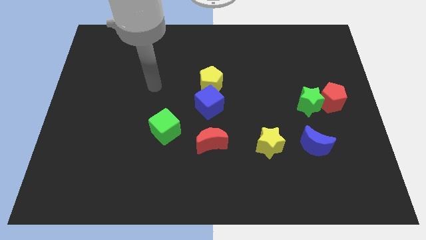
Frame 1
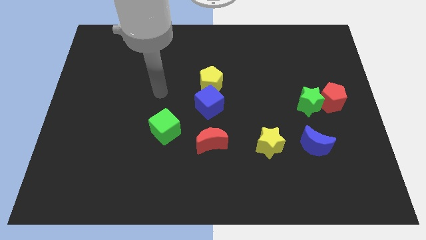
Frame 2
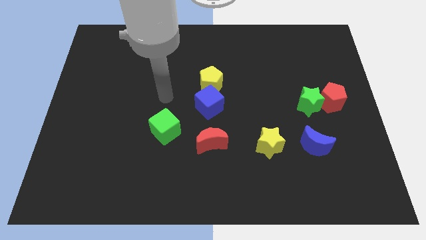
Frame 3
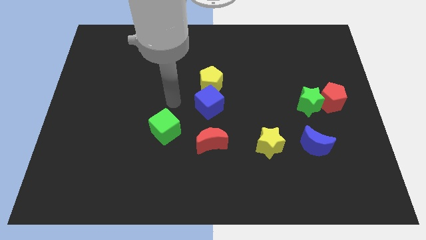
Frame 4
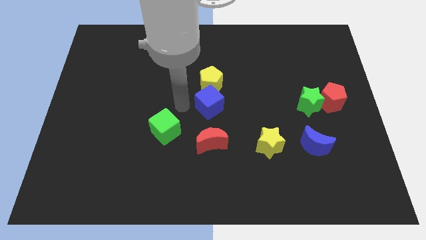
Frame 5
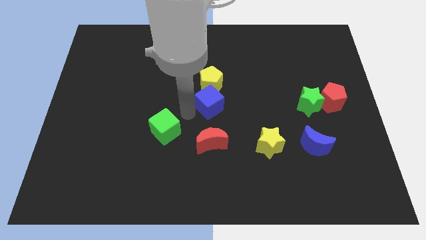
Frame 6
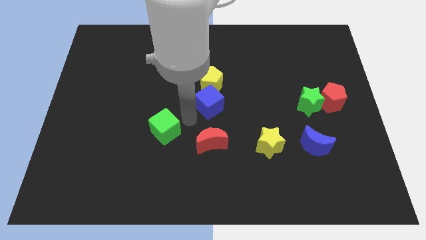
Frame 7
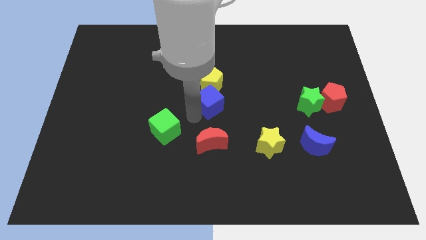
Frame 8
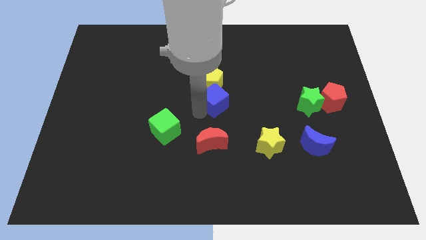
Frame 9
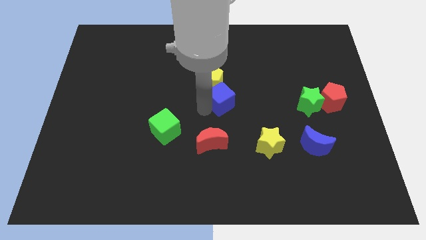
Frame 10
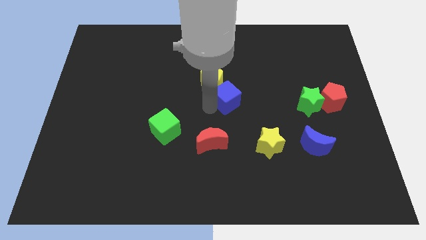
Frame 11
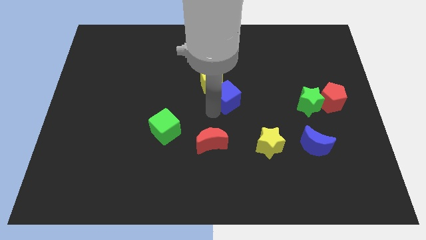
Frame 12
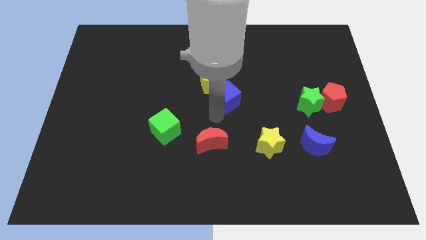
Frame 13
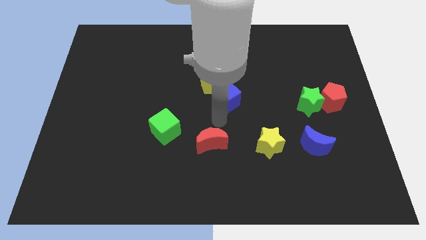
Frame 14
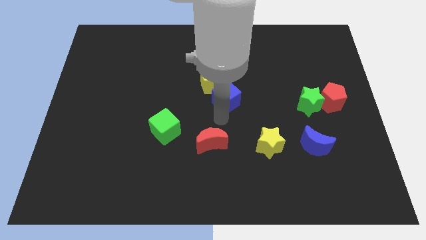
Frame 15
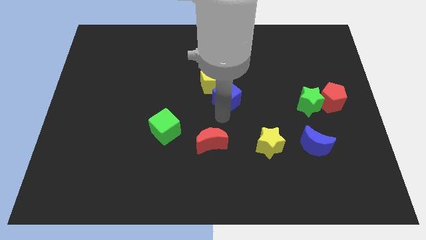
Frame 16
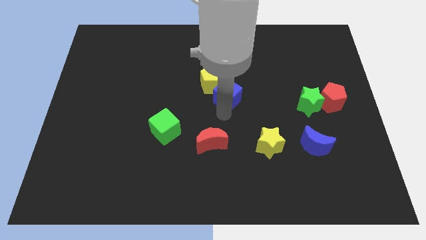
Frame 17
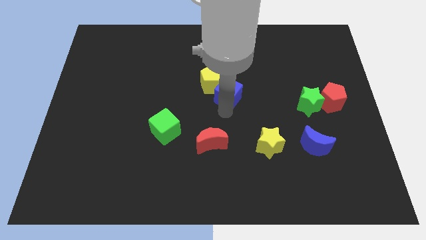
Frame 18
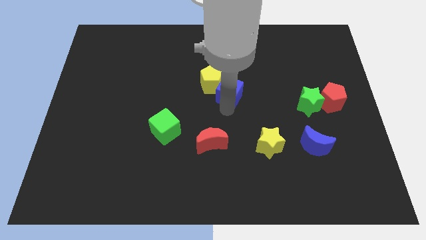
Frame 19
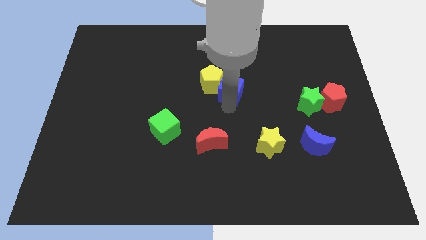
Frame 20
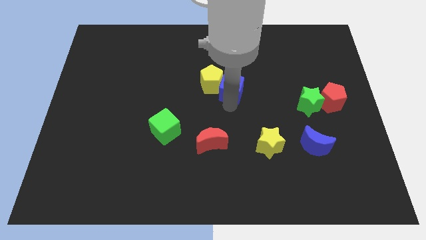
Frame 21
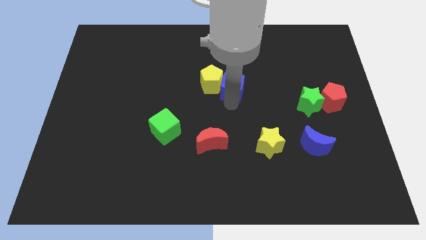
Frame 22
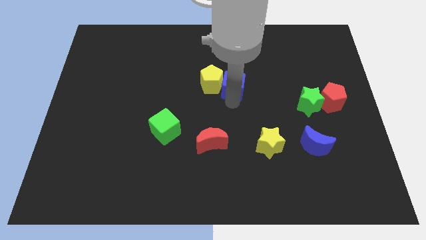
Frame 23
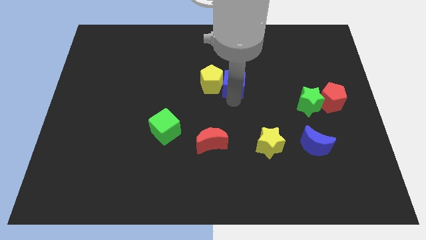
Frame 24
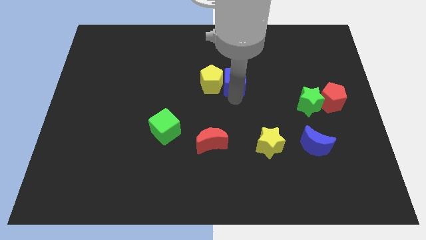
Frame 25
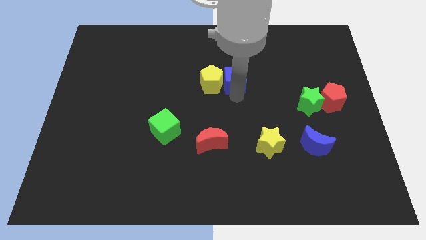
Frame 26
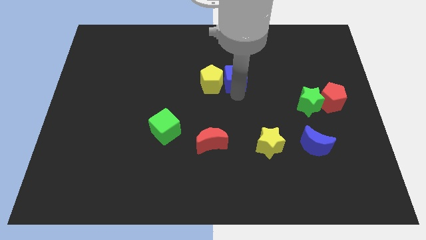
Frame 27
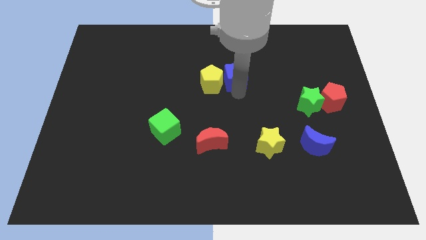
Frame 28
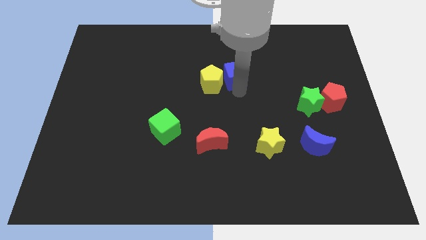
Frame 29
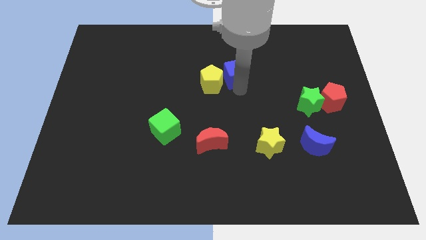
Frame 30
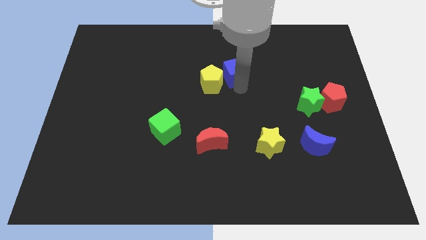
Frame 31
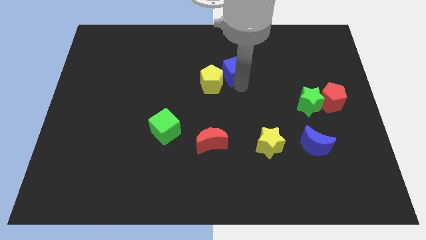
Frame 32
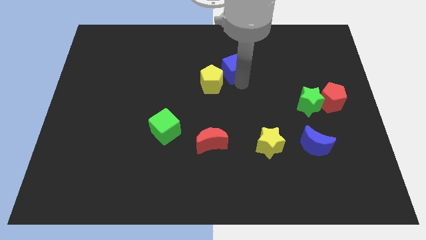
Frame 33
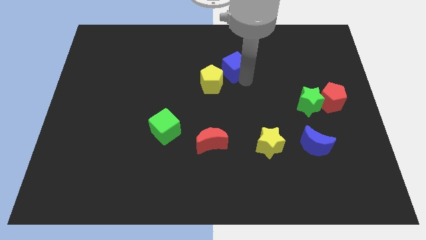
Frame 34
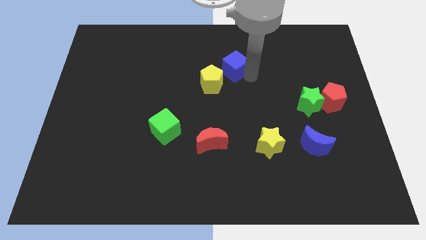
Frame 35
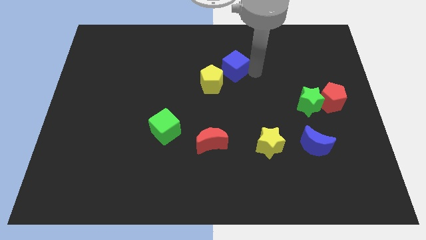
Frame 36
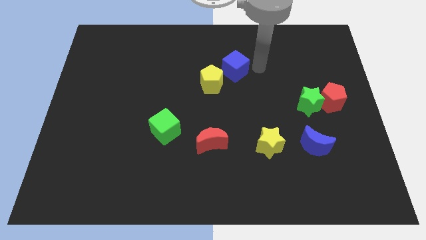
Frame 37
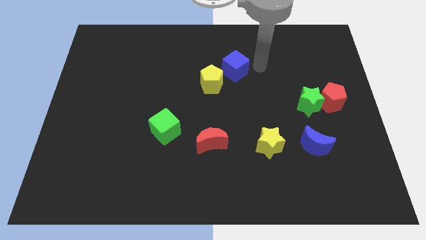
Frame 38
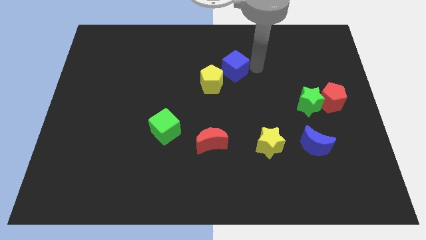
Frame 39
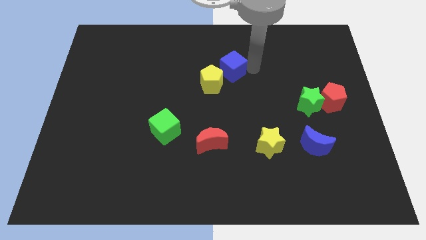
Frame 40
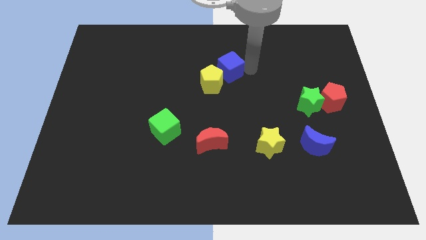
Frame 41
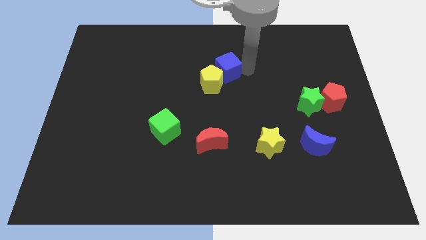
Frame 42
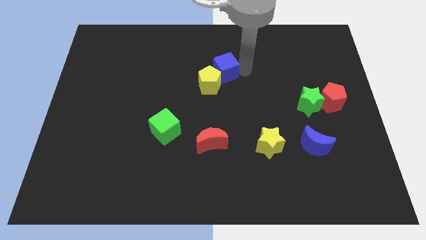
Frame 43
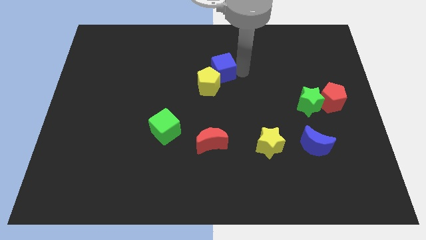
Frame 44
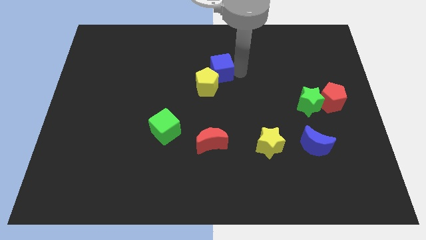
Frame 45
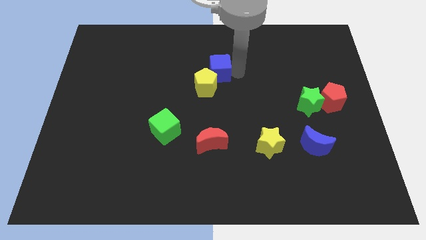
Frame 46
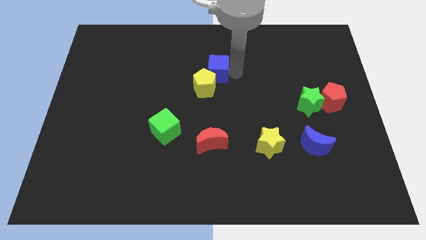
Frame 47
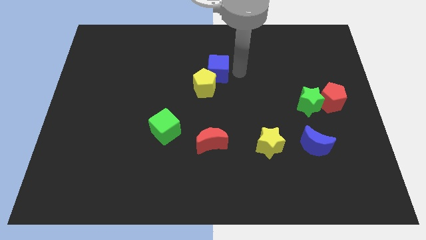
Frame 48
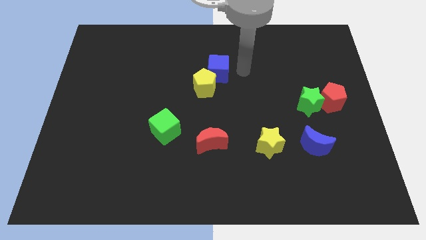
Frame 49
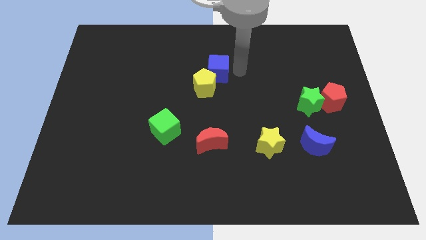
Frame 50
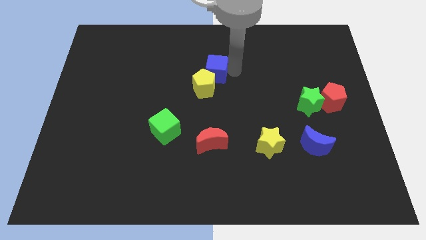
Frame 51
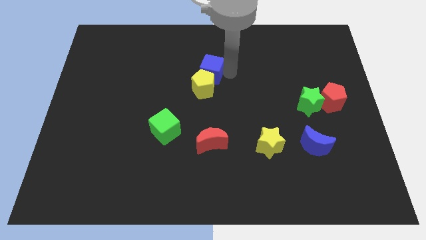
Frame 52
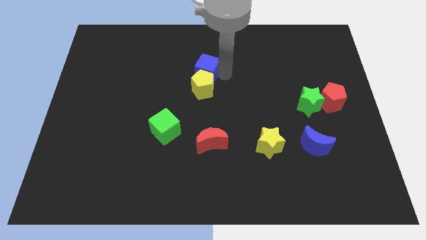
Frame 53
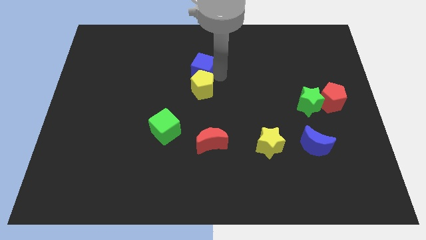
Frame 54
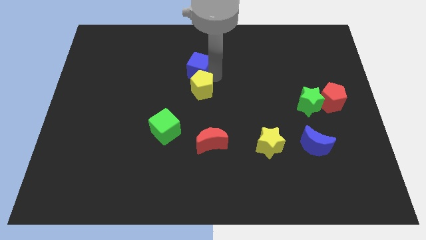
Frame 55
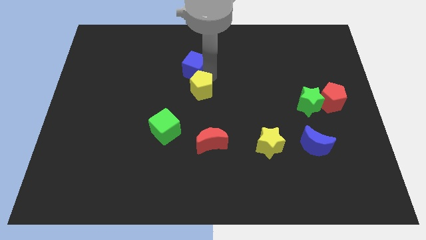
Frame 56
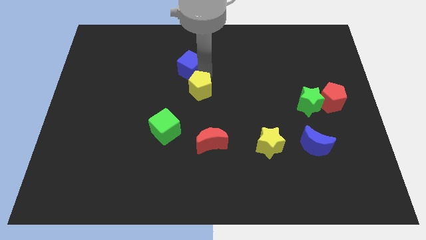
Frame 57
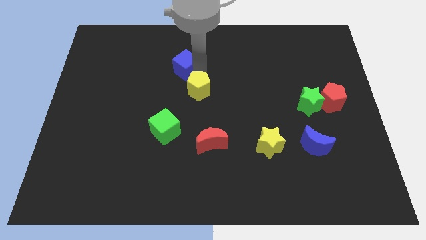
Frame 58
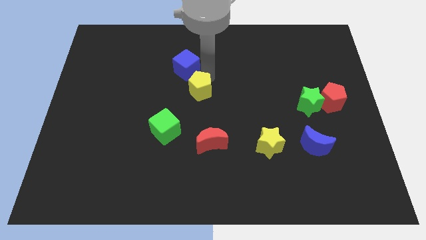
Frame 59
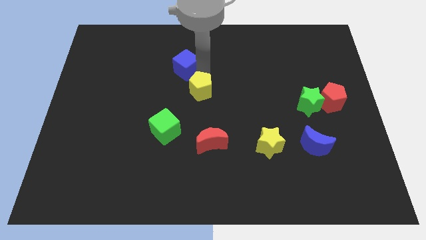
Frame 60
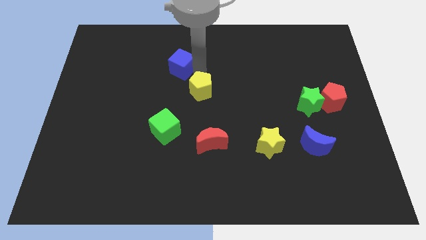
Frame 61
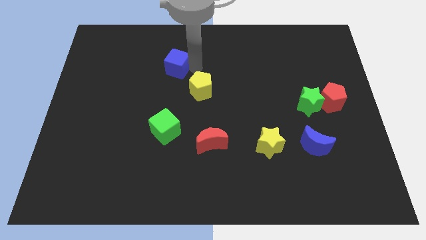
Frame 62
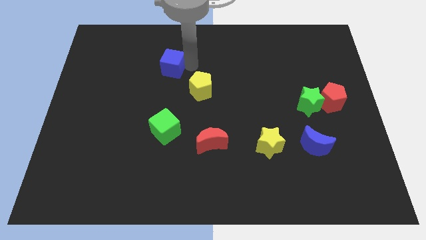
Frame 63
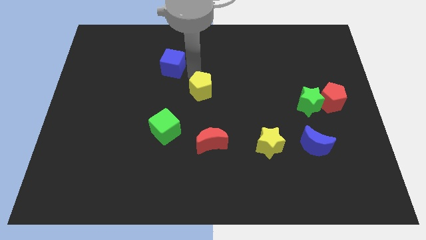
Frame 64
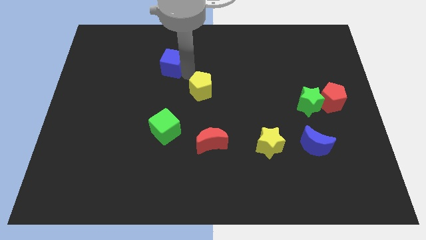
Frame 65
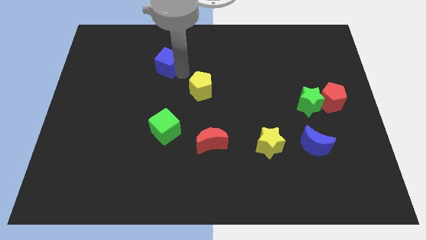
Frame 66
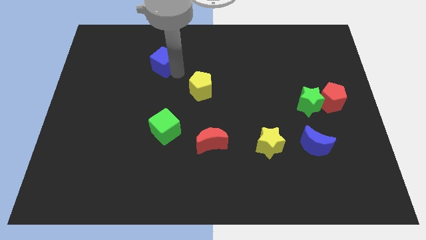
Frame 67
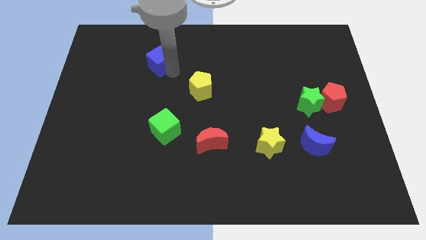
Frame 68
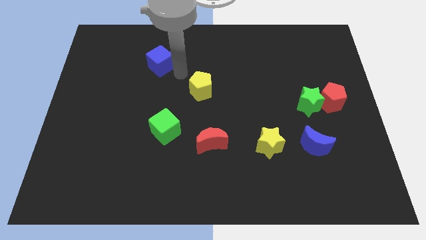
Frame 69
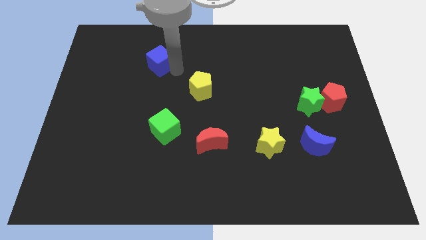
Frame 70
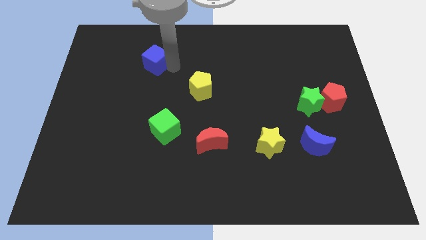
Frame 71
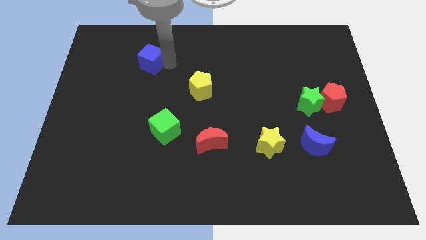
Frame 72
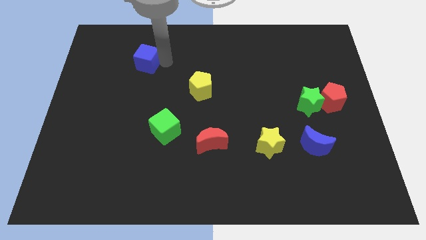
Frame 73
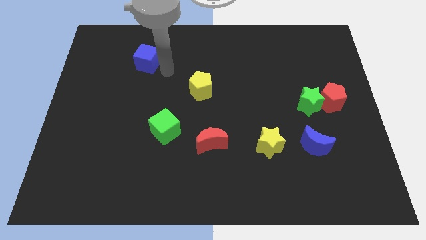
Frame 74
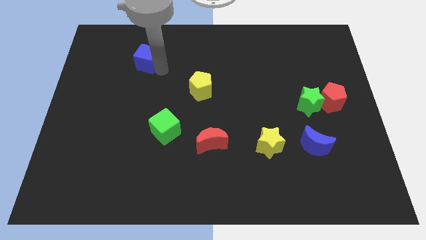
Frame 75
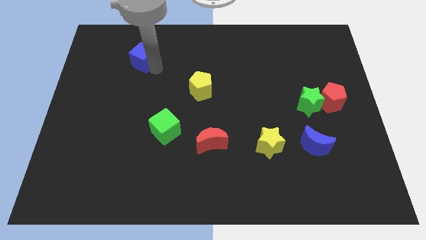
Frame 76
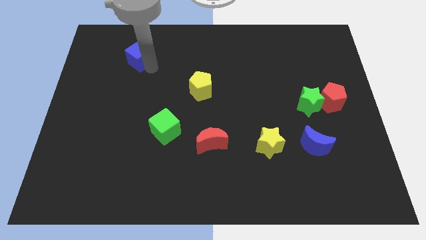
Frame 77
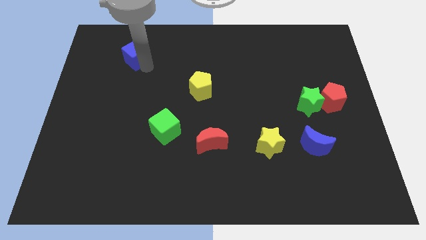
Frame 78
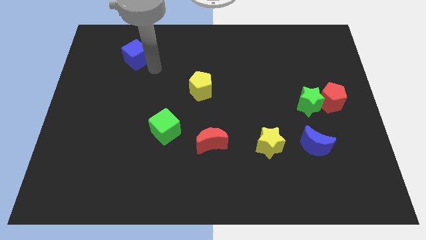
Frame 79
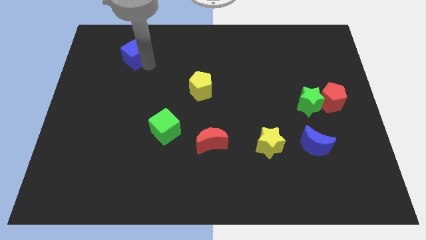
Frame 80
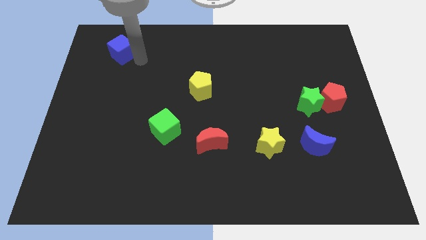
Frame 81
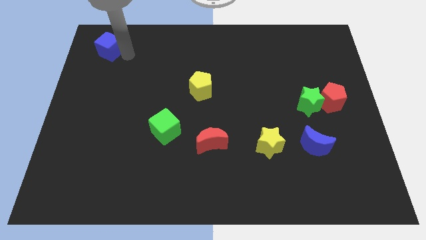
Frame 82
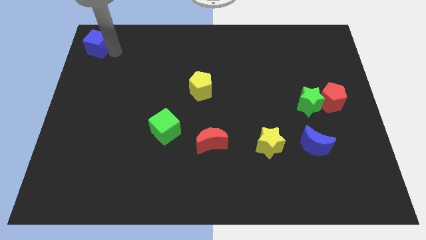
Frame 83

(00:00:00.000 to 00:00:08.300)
slide the blue cube to the top left corner
